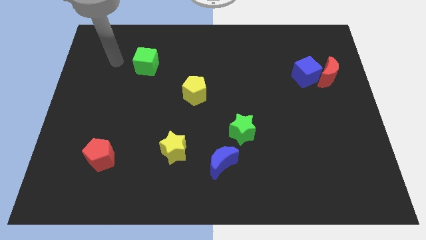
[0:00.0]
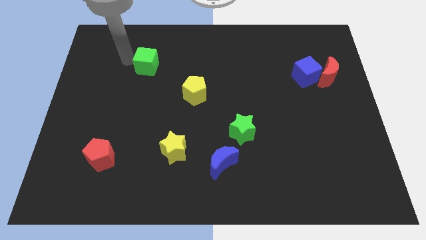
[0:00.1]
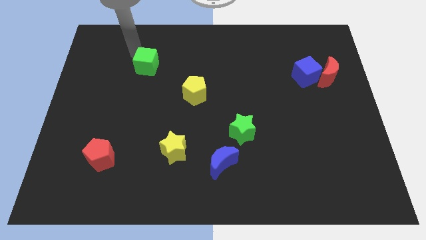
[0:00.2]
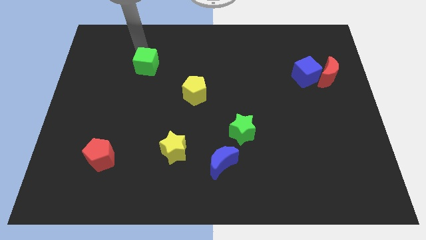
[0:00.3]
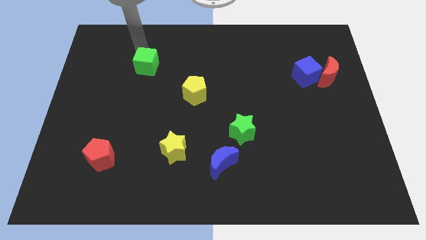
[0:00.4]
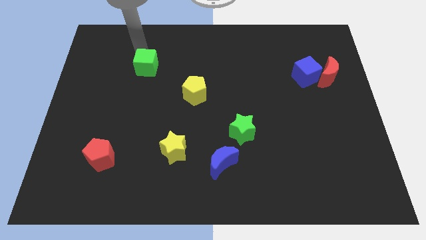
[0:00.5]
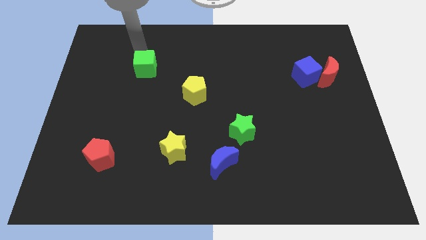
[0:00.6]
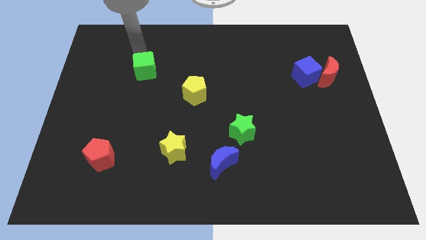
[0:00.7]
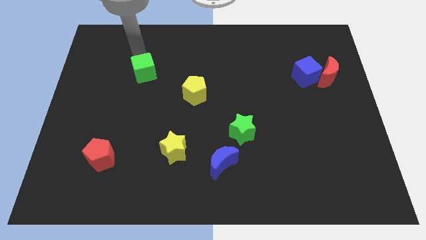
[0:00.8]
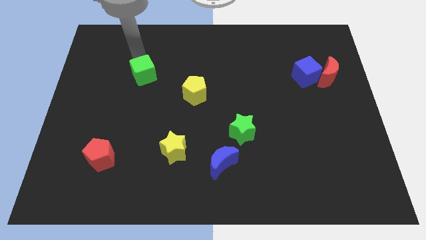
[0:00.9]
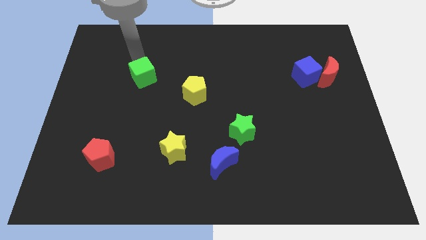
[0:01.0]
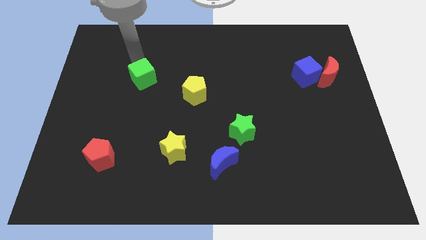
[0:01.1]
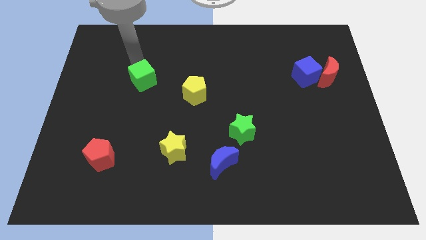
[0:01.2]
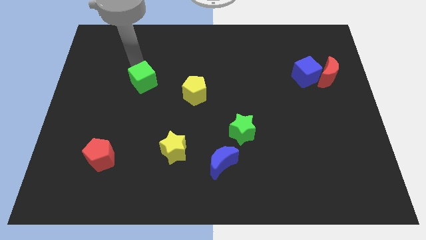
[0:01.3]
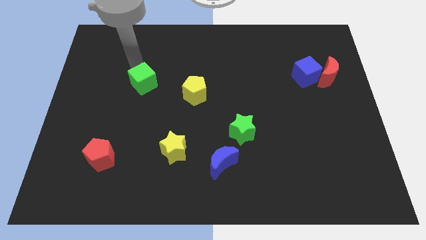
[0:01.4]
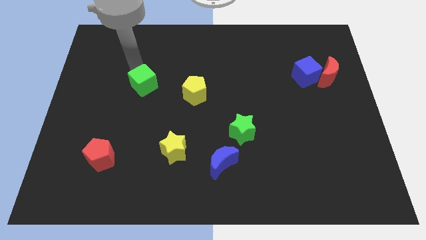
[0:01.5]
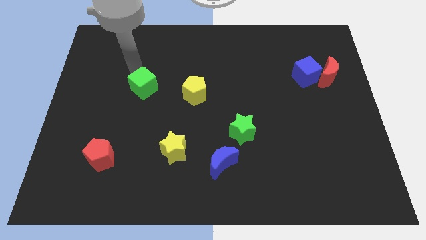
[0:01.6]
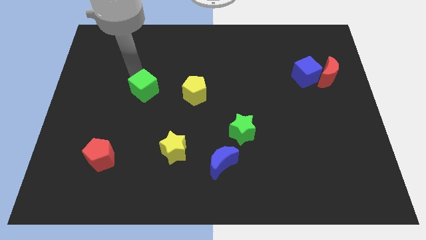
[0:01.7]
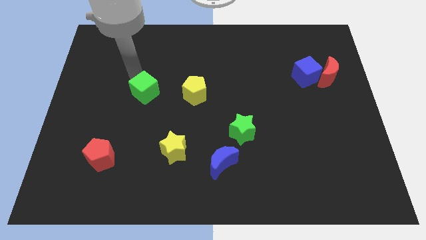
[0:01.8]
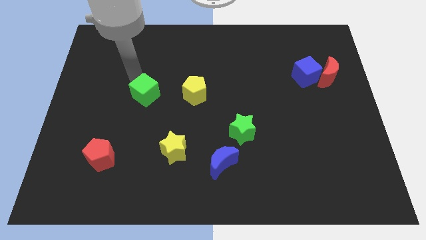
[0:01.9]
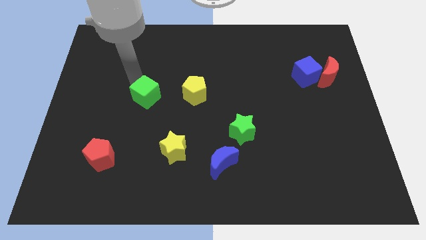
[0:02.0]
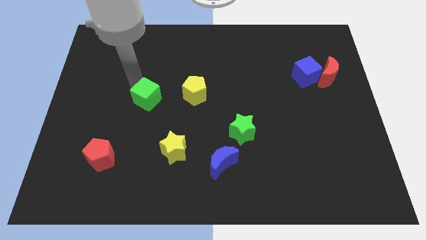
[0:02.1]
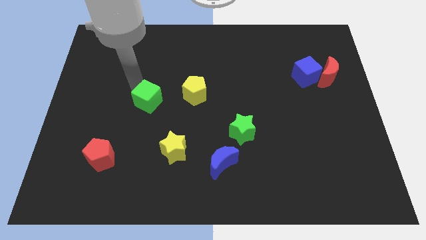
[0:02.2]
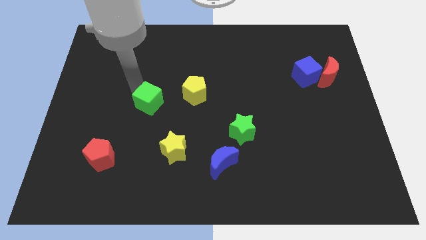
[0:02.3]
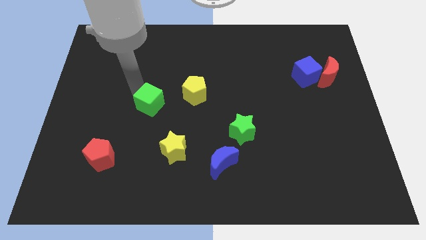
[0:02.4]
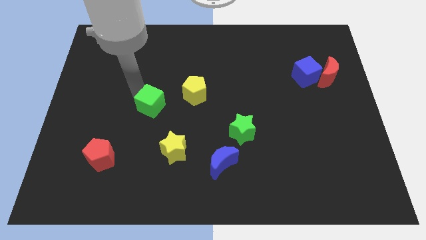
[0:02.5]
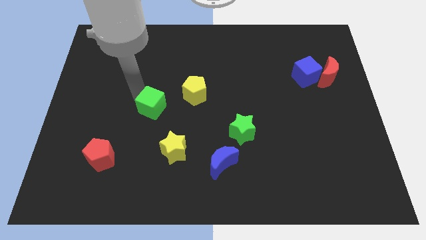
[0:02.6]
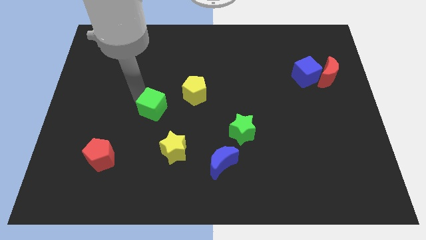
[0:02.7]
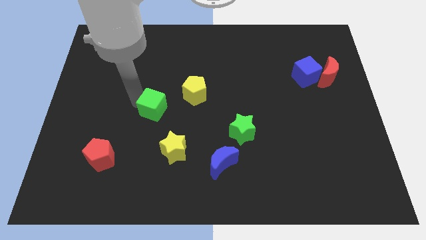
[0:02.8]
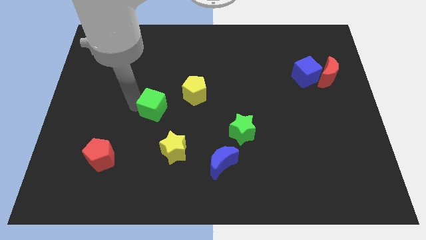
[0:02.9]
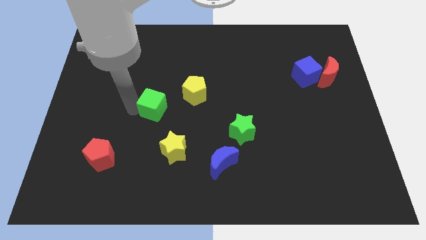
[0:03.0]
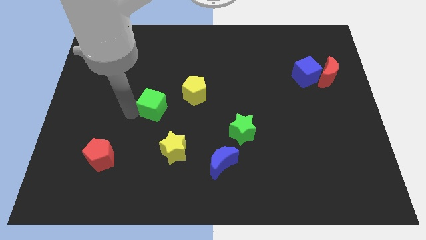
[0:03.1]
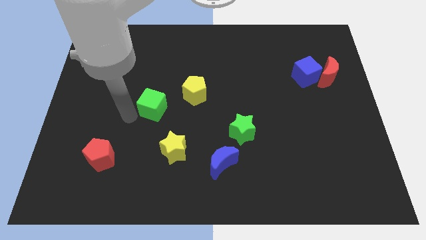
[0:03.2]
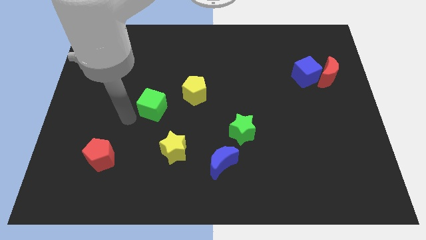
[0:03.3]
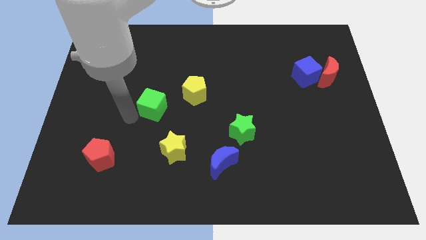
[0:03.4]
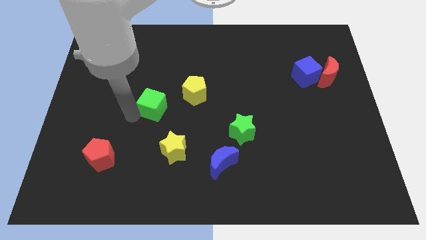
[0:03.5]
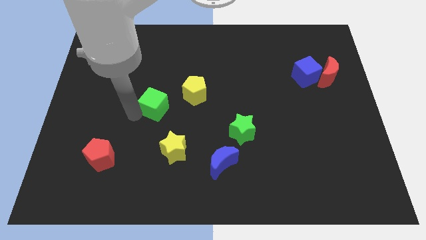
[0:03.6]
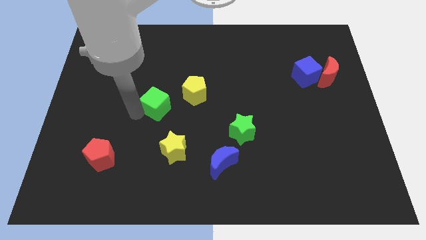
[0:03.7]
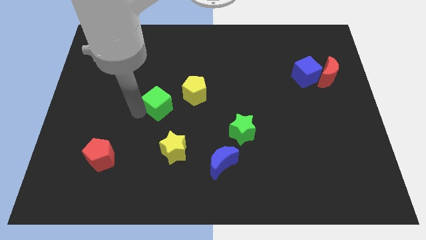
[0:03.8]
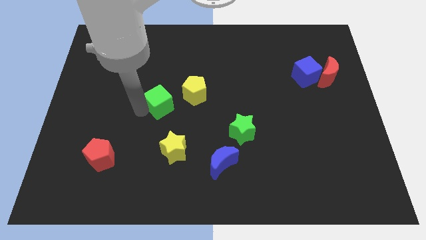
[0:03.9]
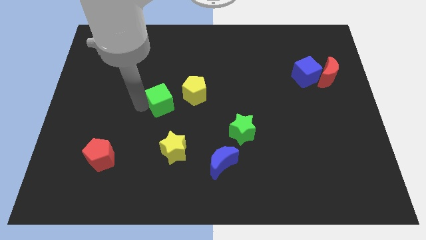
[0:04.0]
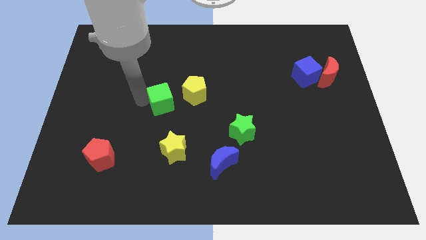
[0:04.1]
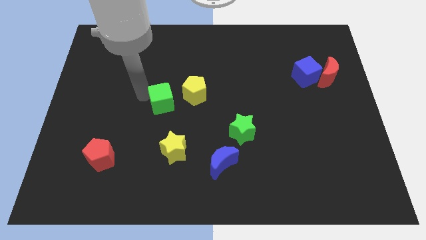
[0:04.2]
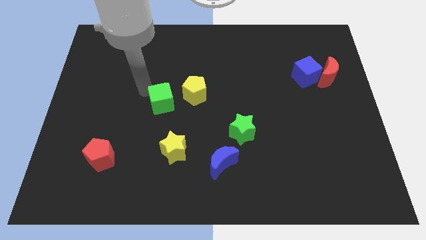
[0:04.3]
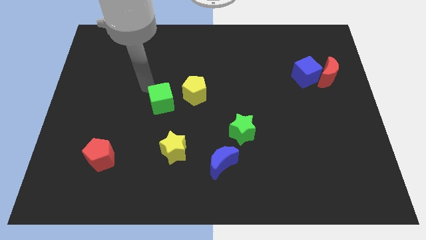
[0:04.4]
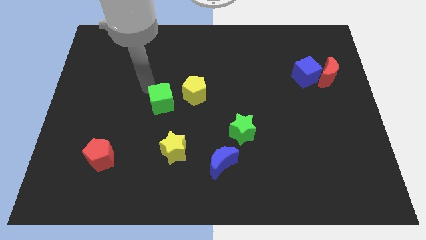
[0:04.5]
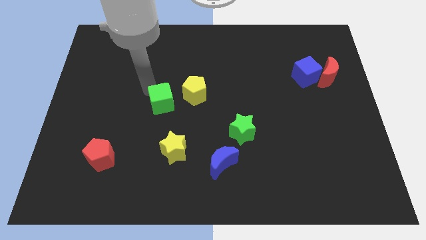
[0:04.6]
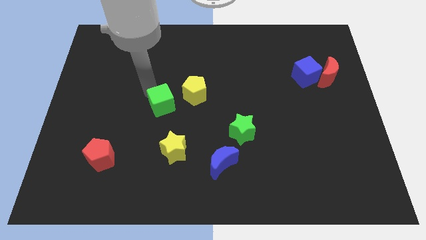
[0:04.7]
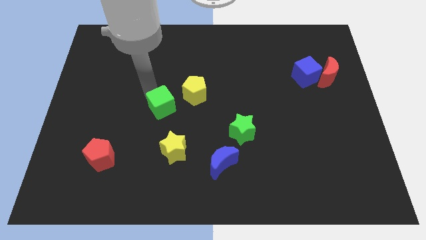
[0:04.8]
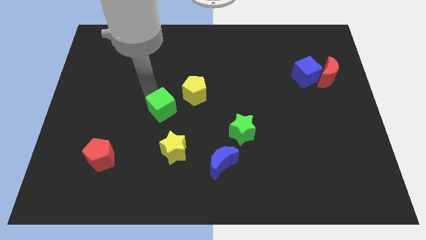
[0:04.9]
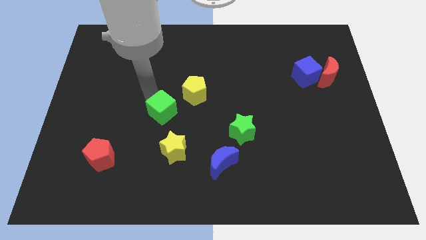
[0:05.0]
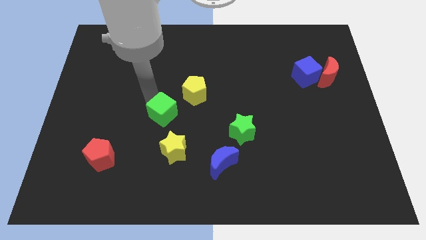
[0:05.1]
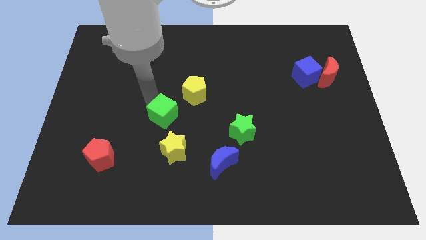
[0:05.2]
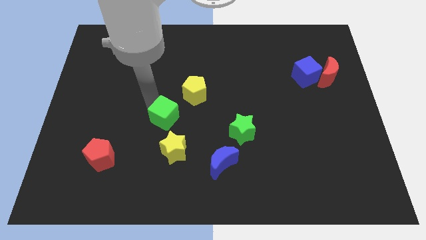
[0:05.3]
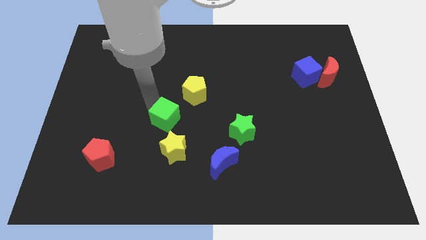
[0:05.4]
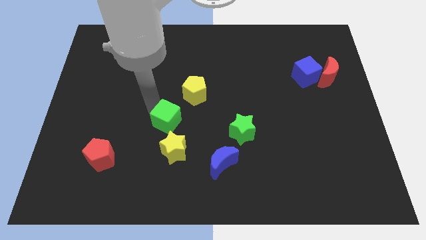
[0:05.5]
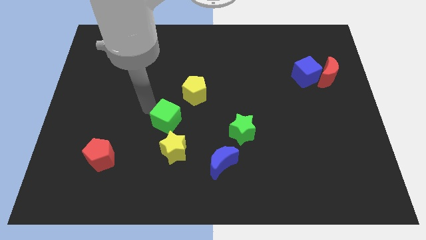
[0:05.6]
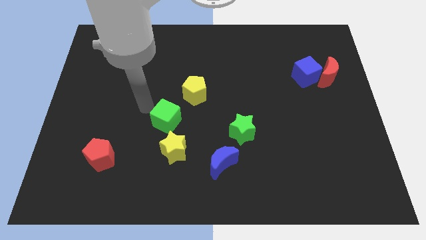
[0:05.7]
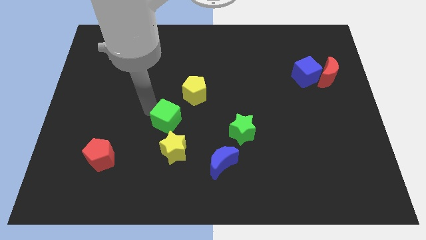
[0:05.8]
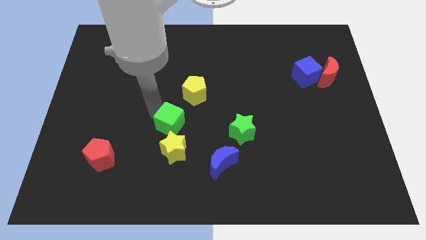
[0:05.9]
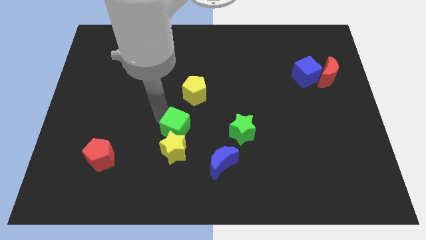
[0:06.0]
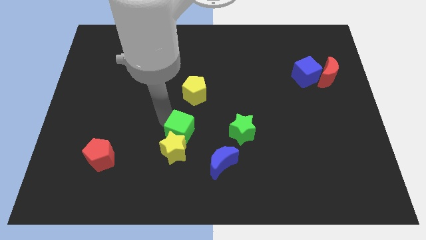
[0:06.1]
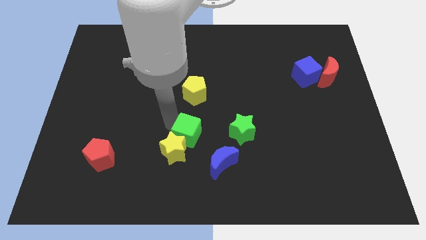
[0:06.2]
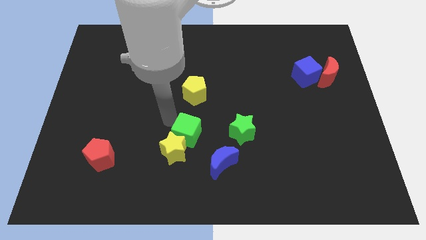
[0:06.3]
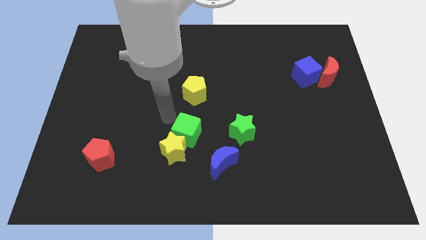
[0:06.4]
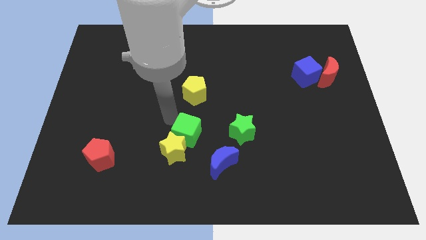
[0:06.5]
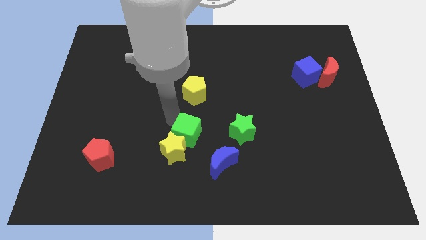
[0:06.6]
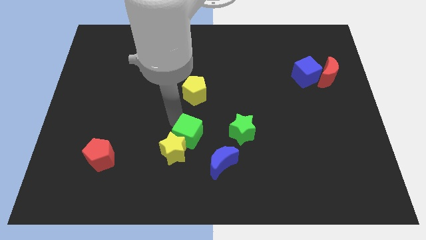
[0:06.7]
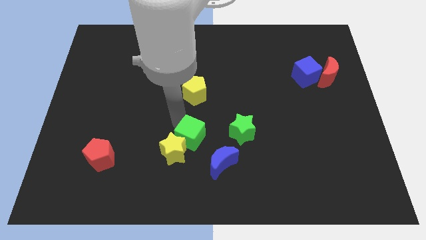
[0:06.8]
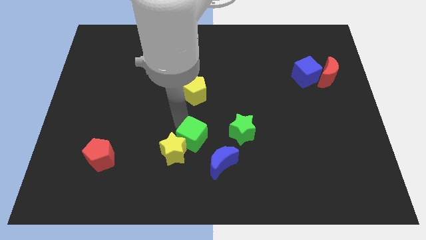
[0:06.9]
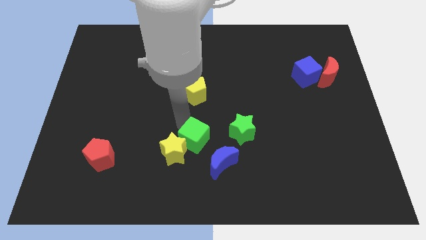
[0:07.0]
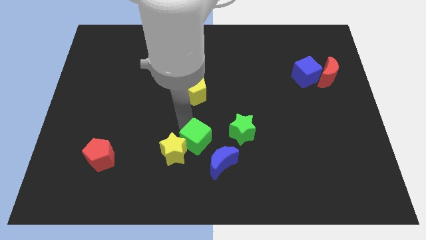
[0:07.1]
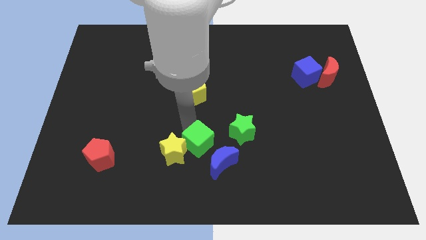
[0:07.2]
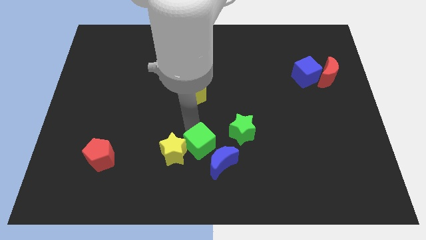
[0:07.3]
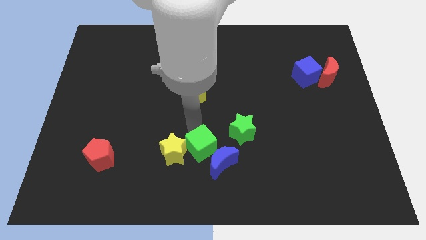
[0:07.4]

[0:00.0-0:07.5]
move the green cube close to the blue moon

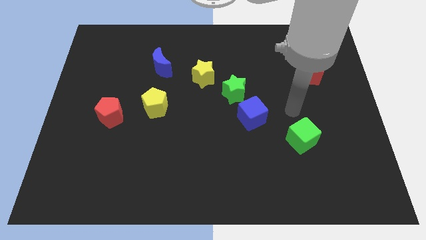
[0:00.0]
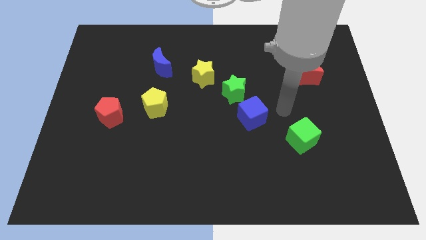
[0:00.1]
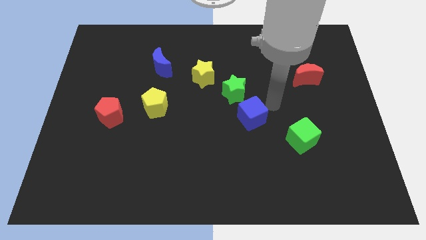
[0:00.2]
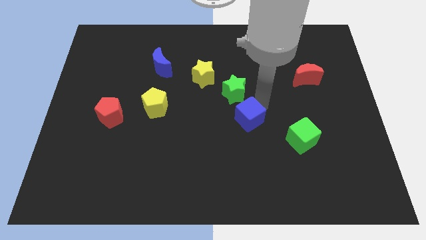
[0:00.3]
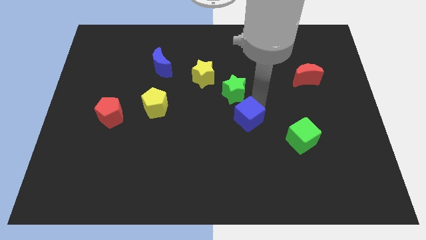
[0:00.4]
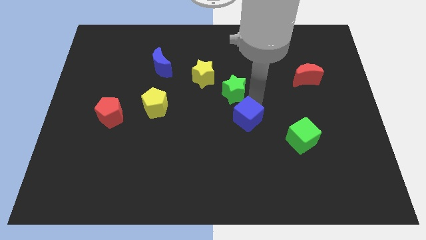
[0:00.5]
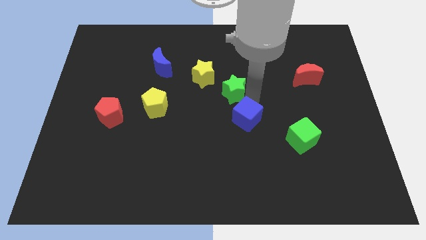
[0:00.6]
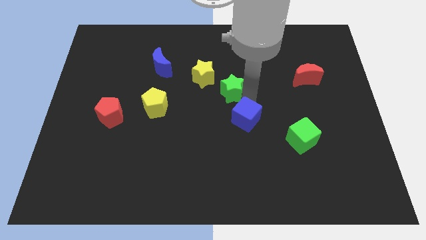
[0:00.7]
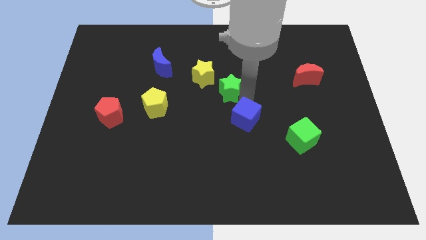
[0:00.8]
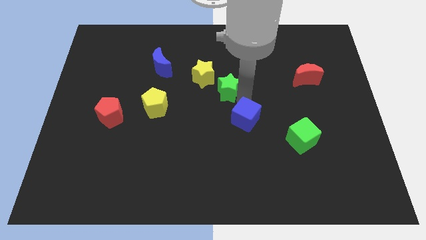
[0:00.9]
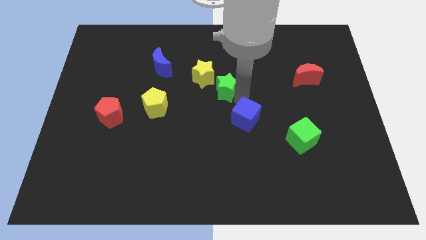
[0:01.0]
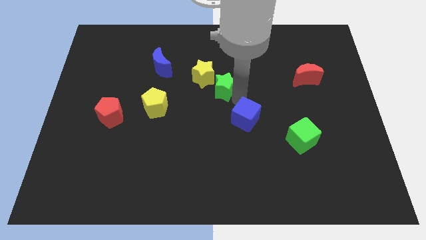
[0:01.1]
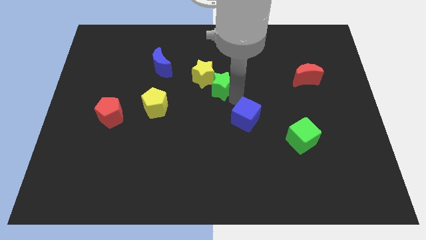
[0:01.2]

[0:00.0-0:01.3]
move the green star towards the yellow star
